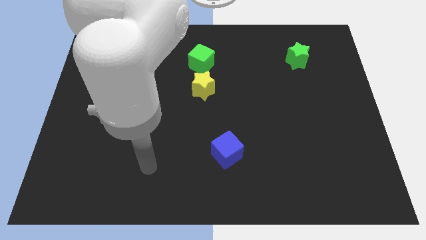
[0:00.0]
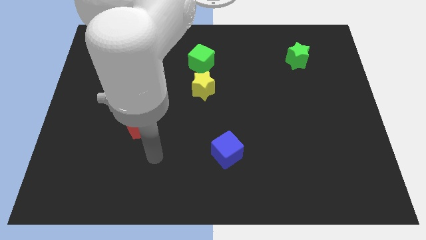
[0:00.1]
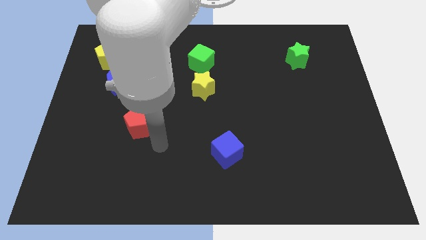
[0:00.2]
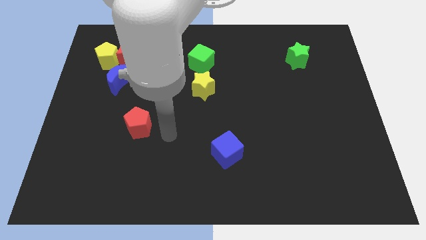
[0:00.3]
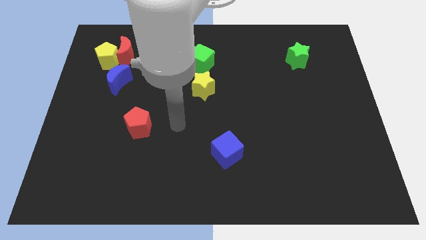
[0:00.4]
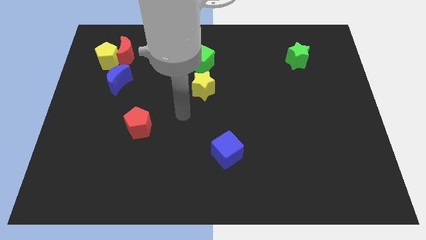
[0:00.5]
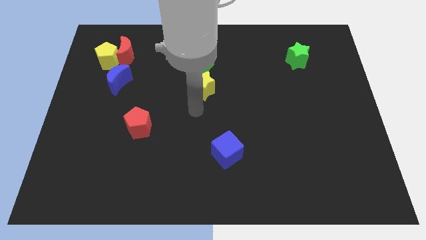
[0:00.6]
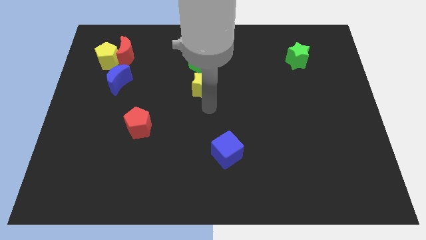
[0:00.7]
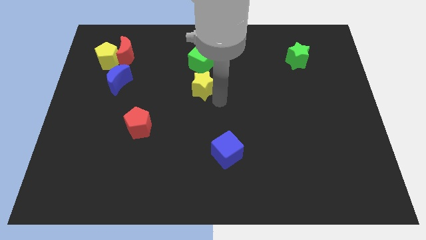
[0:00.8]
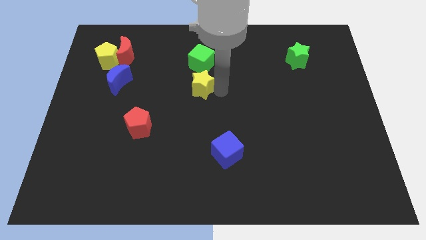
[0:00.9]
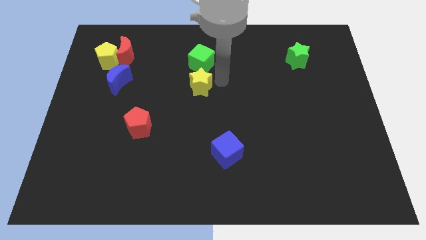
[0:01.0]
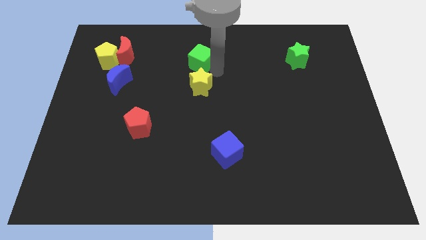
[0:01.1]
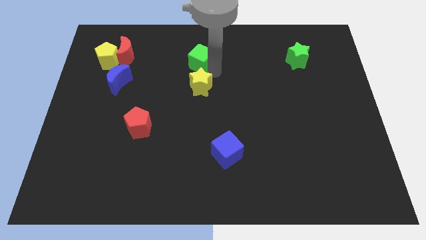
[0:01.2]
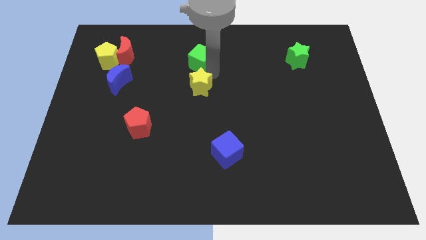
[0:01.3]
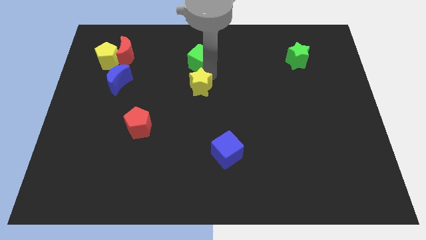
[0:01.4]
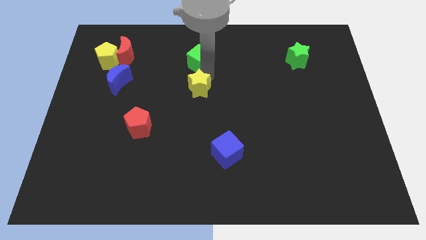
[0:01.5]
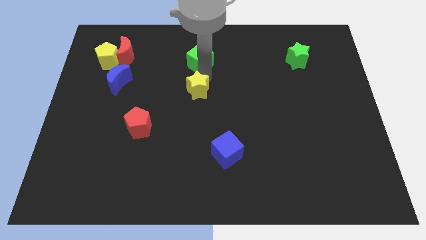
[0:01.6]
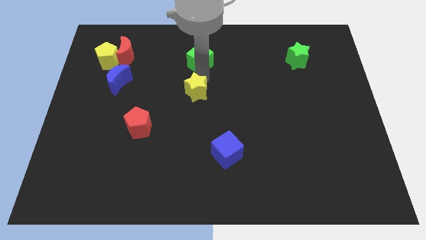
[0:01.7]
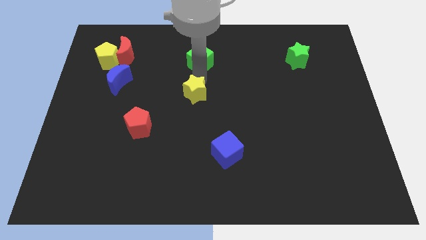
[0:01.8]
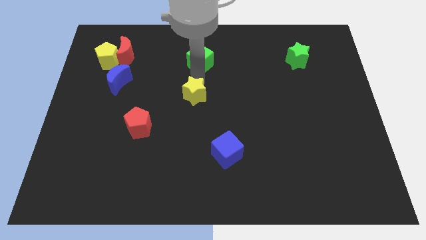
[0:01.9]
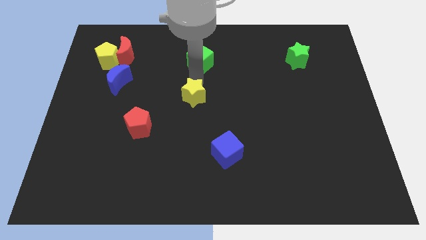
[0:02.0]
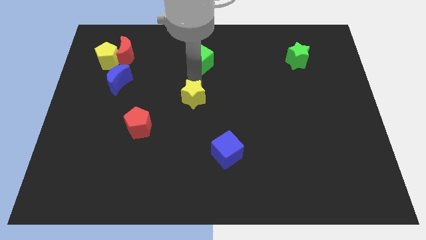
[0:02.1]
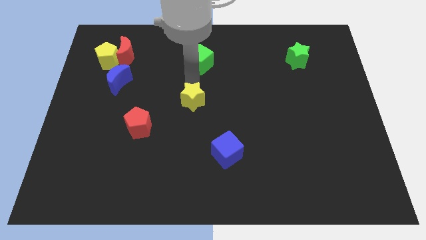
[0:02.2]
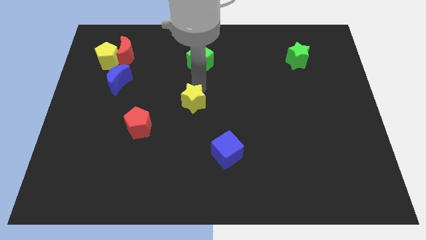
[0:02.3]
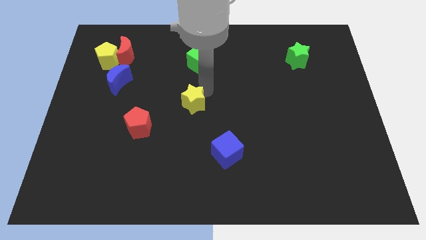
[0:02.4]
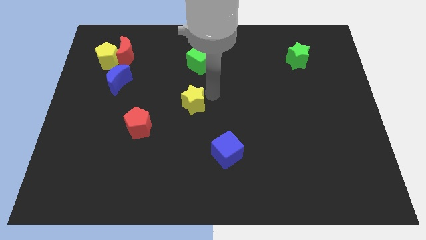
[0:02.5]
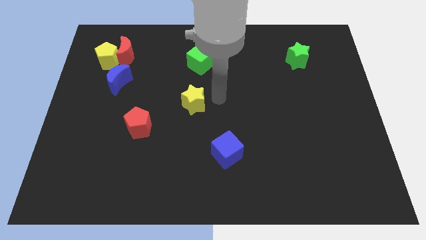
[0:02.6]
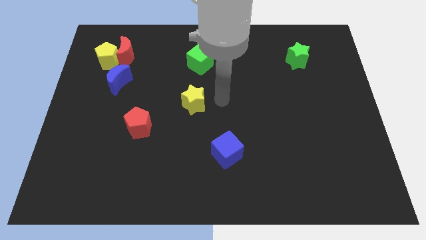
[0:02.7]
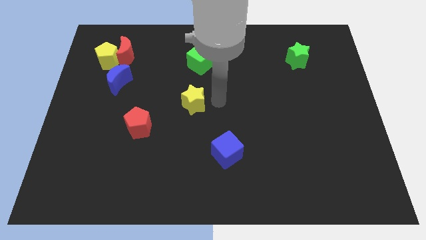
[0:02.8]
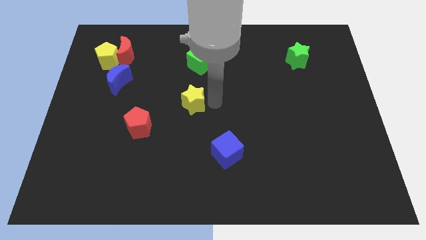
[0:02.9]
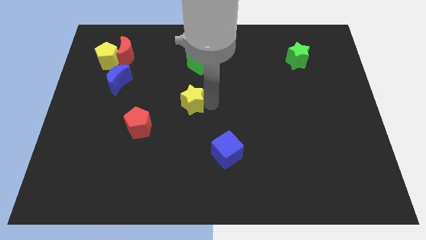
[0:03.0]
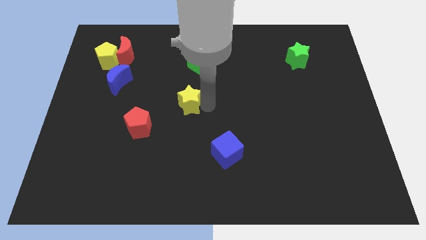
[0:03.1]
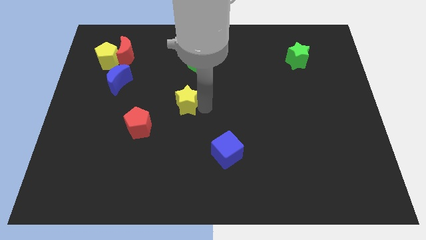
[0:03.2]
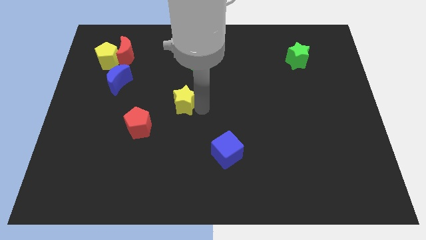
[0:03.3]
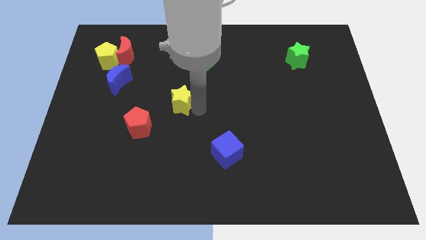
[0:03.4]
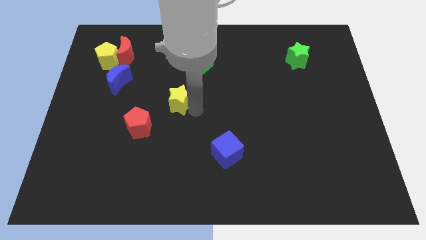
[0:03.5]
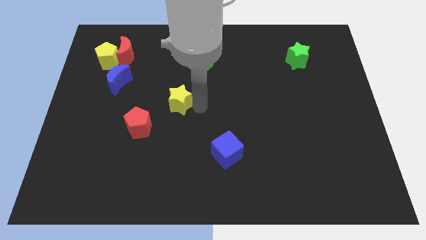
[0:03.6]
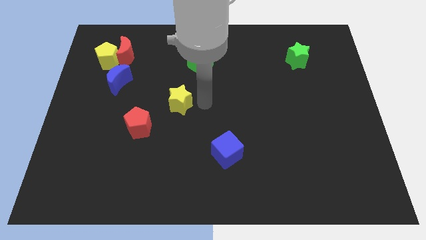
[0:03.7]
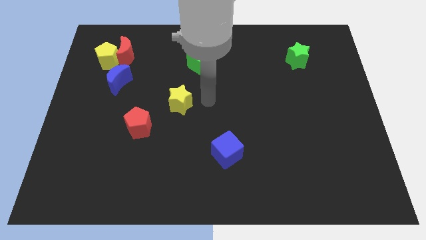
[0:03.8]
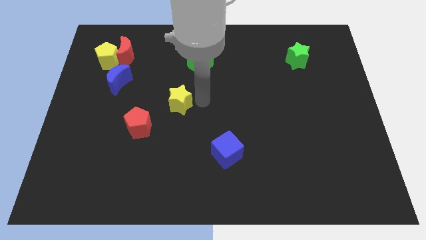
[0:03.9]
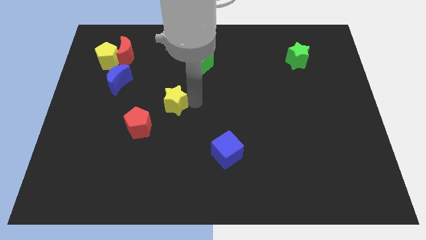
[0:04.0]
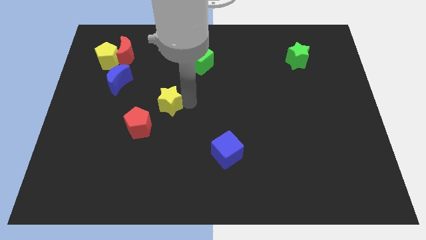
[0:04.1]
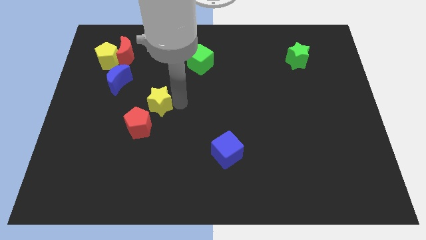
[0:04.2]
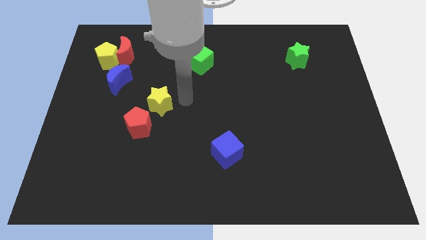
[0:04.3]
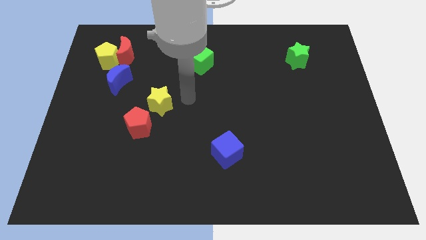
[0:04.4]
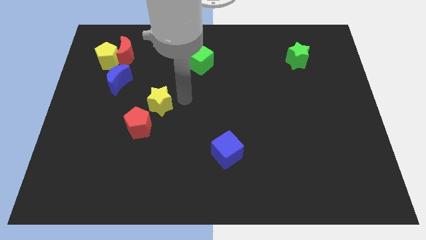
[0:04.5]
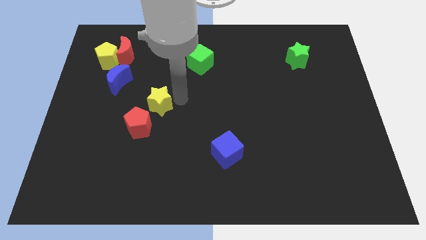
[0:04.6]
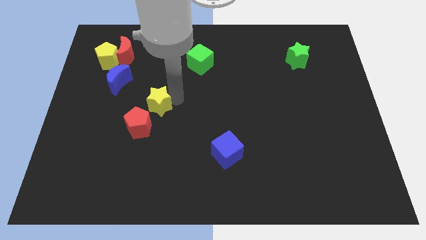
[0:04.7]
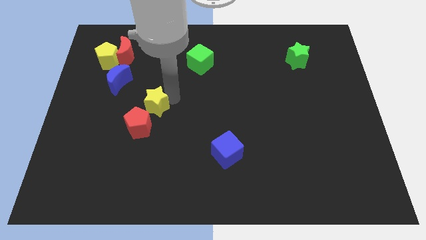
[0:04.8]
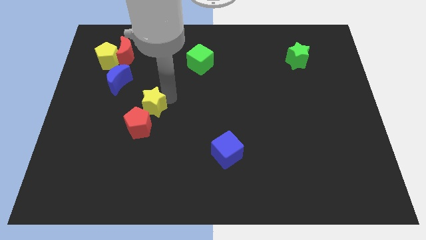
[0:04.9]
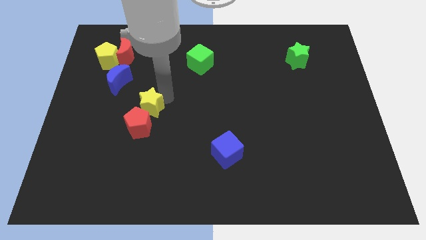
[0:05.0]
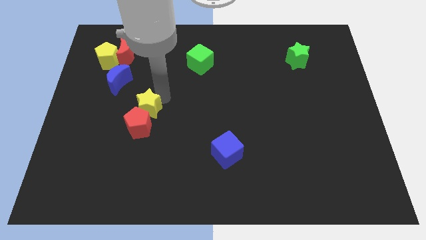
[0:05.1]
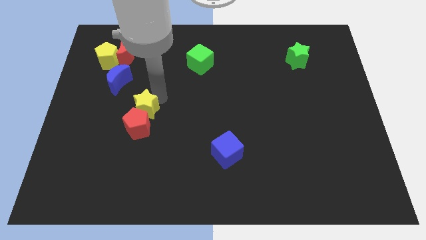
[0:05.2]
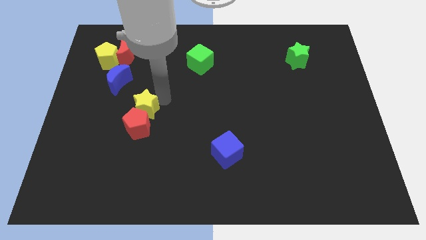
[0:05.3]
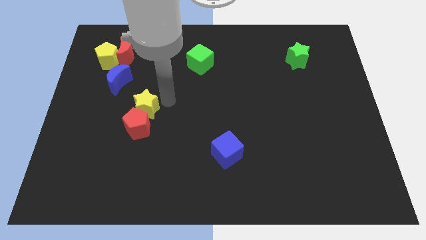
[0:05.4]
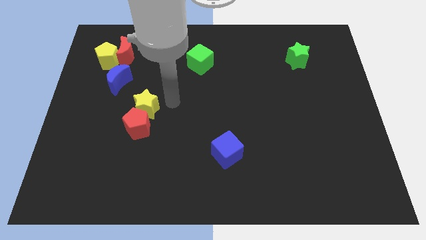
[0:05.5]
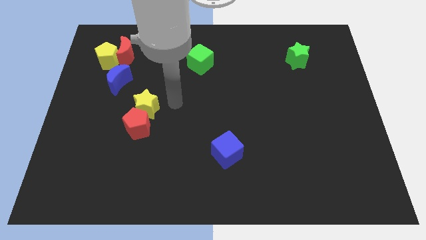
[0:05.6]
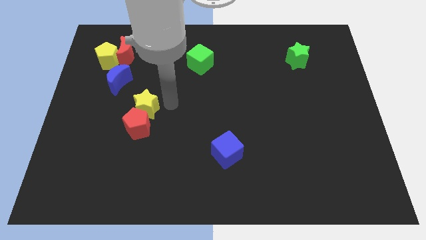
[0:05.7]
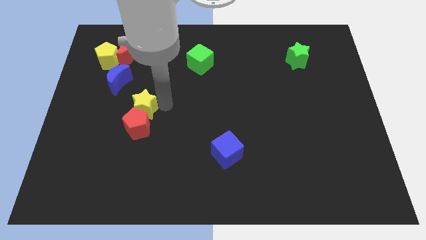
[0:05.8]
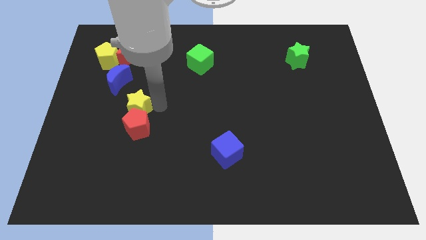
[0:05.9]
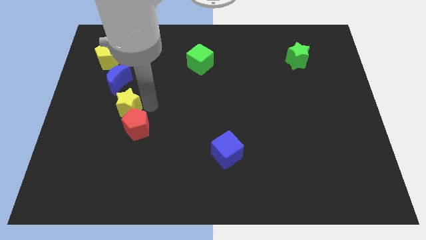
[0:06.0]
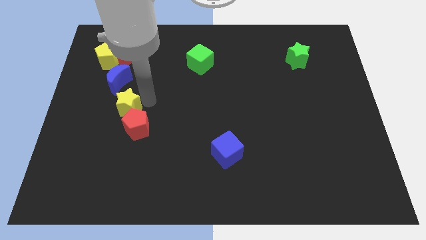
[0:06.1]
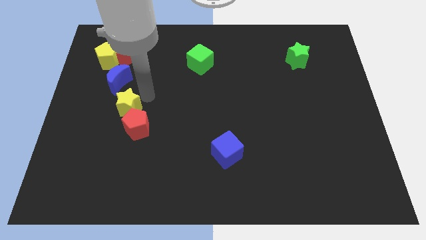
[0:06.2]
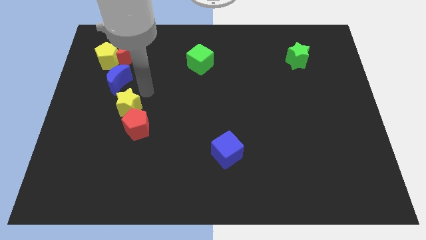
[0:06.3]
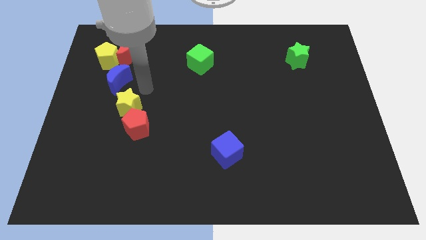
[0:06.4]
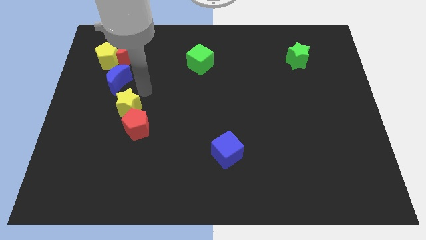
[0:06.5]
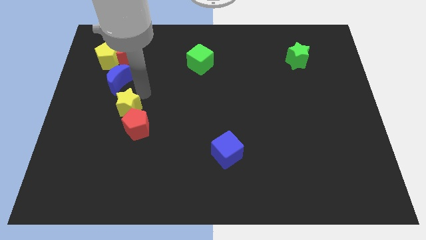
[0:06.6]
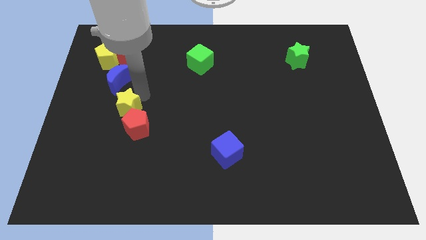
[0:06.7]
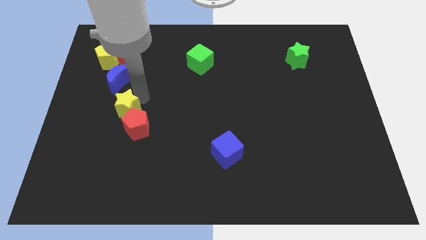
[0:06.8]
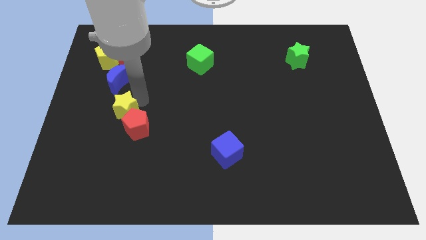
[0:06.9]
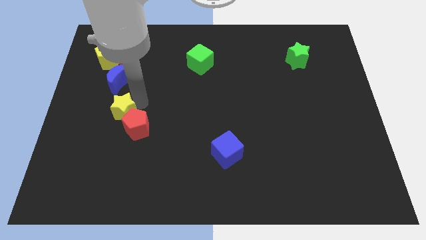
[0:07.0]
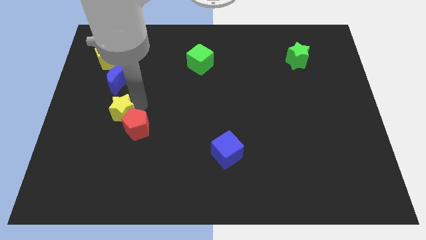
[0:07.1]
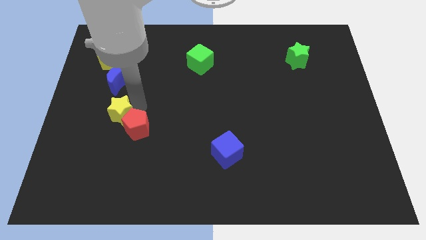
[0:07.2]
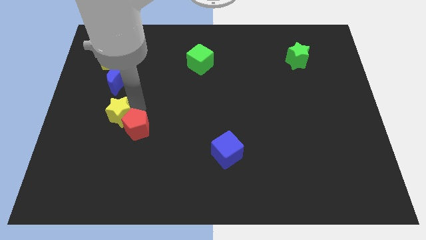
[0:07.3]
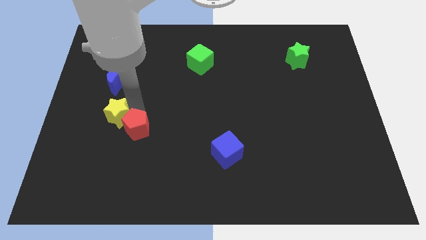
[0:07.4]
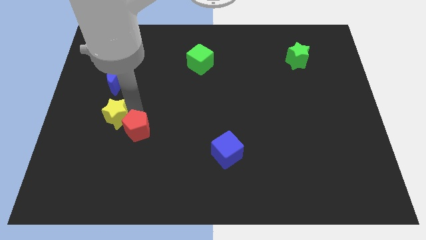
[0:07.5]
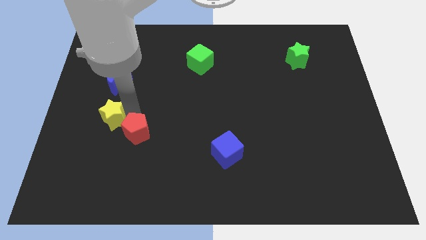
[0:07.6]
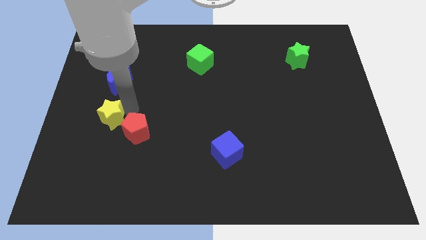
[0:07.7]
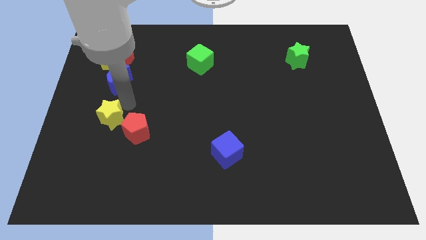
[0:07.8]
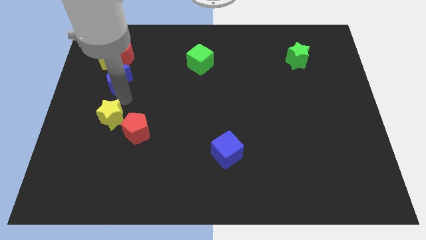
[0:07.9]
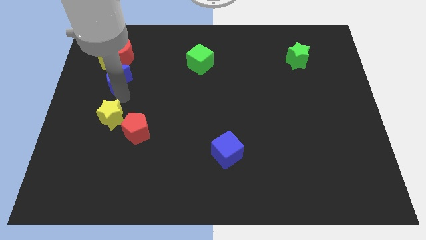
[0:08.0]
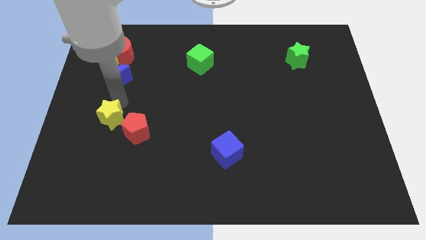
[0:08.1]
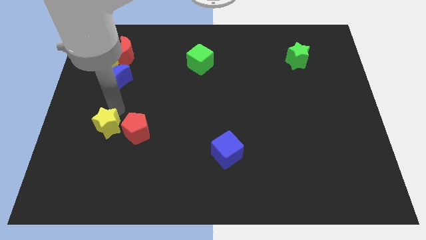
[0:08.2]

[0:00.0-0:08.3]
push the yellow star down and left diagonally
